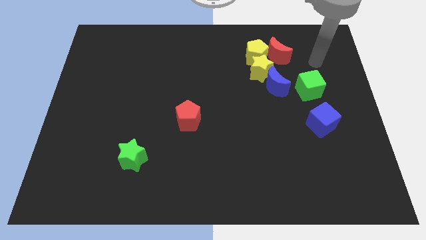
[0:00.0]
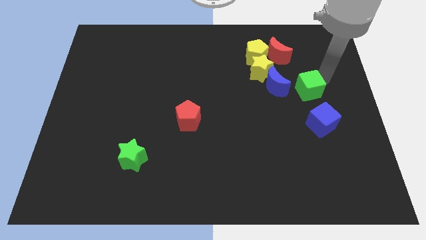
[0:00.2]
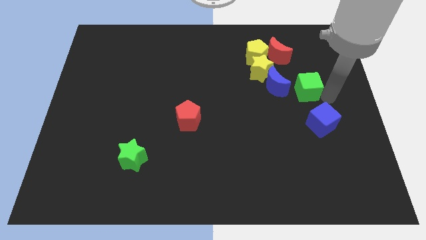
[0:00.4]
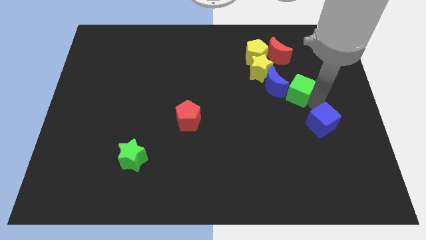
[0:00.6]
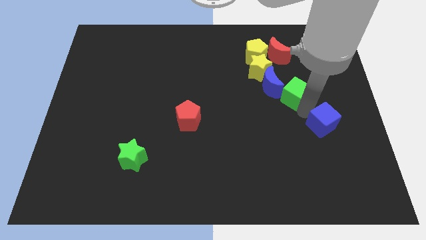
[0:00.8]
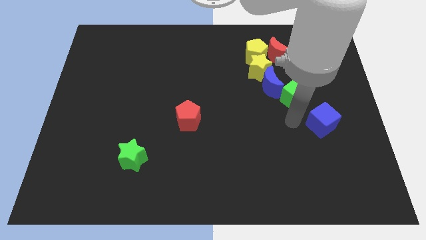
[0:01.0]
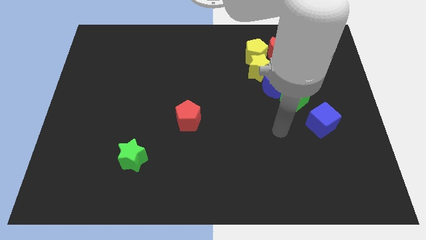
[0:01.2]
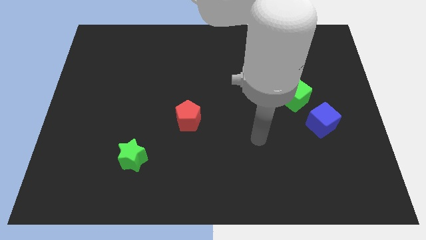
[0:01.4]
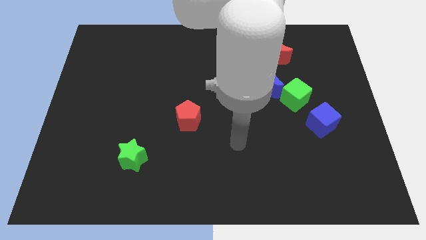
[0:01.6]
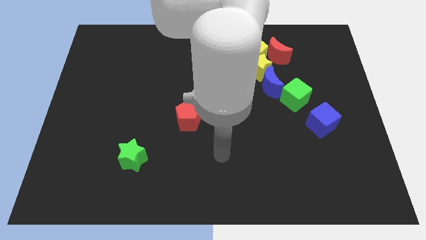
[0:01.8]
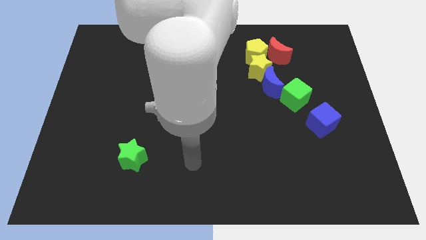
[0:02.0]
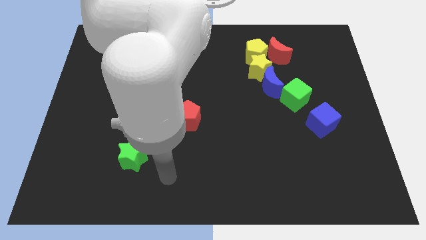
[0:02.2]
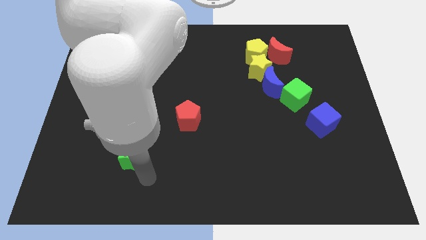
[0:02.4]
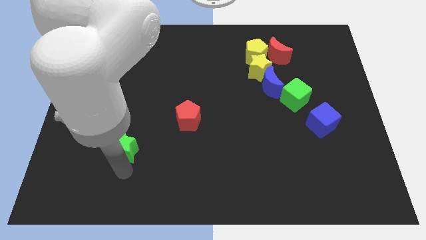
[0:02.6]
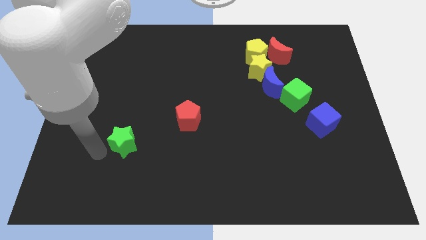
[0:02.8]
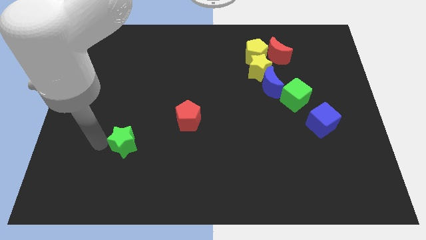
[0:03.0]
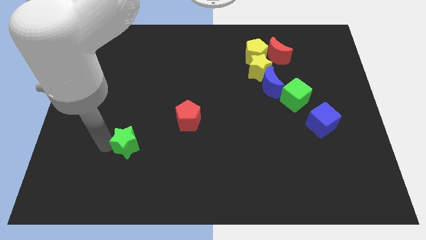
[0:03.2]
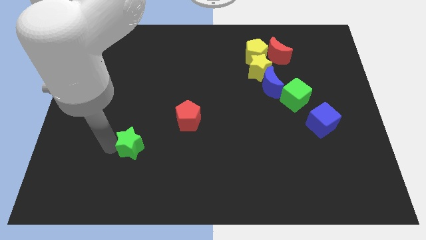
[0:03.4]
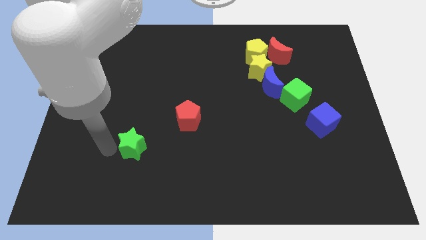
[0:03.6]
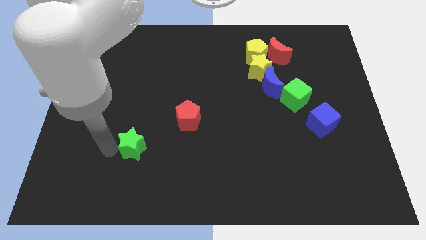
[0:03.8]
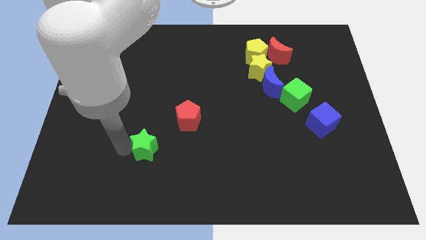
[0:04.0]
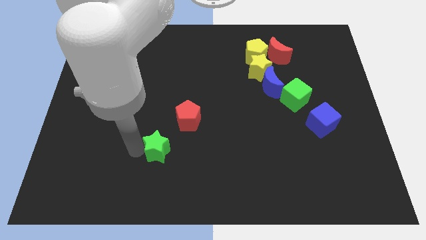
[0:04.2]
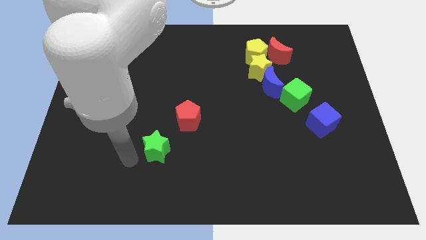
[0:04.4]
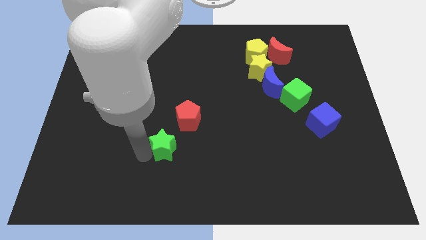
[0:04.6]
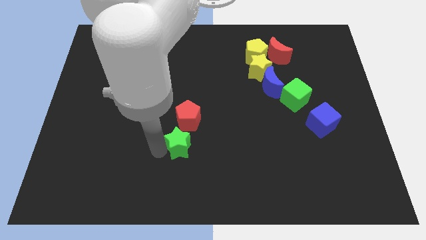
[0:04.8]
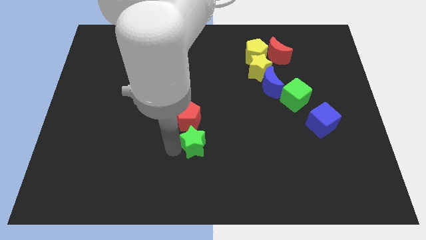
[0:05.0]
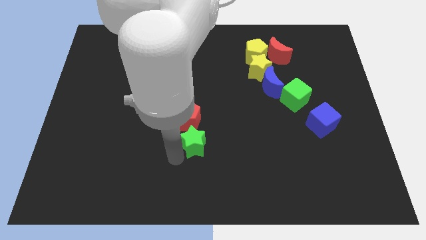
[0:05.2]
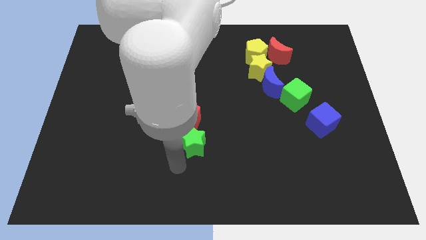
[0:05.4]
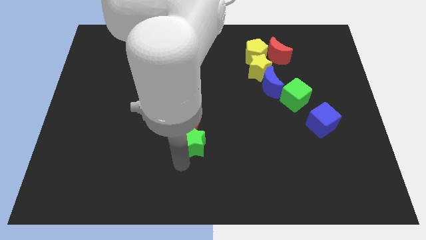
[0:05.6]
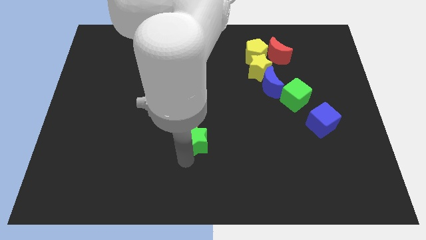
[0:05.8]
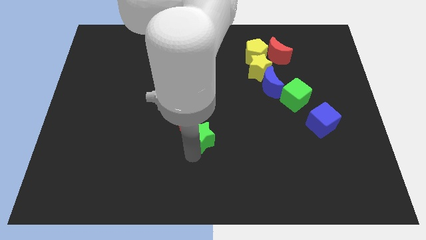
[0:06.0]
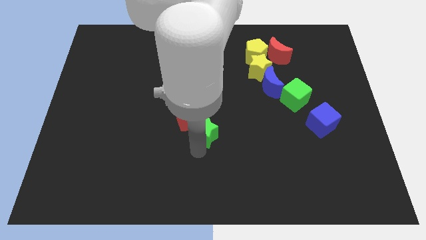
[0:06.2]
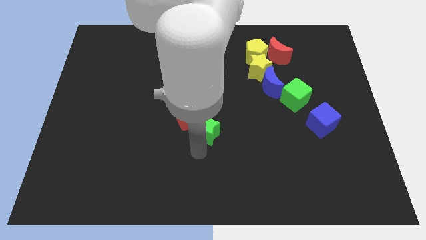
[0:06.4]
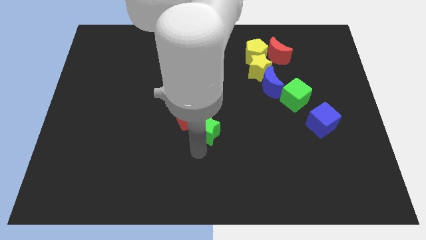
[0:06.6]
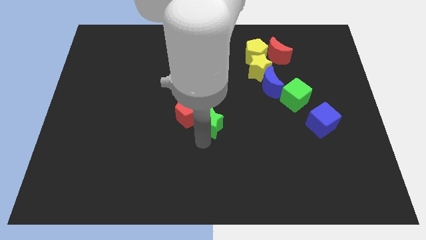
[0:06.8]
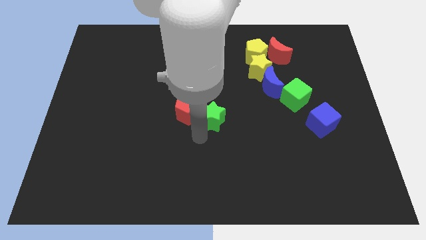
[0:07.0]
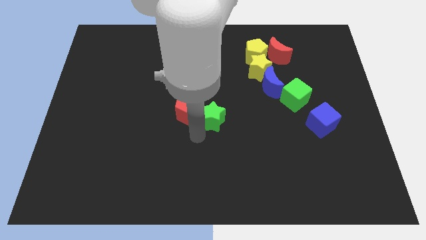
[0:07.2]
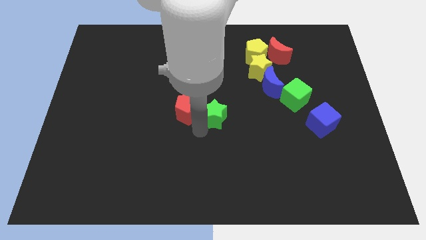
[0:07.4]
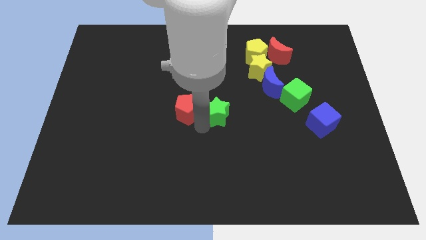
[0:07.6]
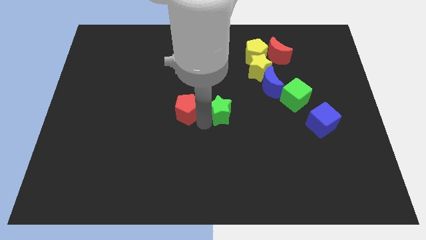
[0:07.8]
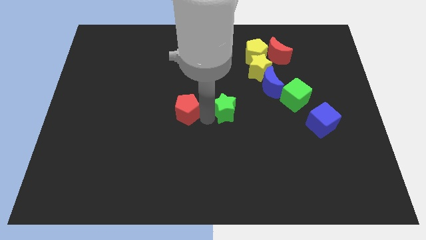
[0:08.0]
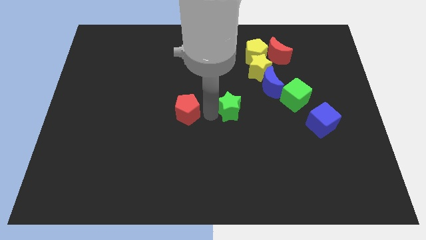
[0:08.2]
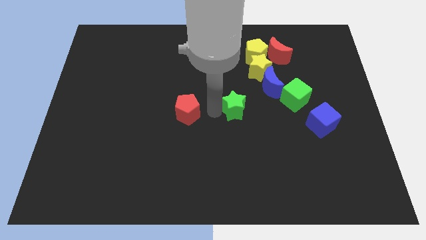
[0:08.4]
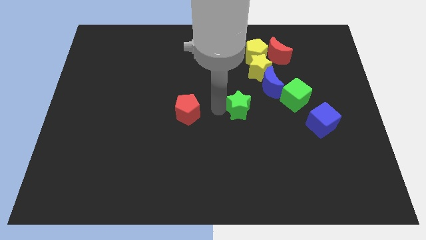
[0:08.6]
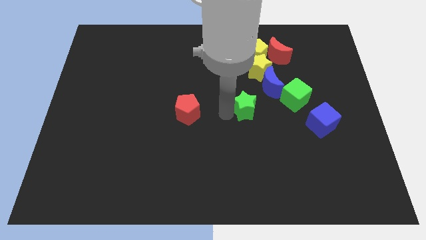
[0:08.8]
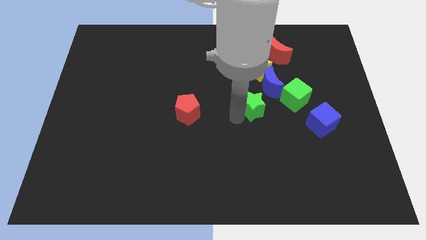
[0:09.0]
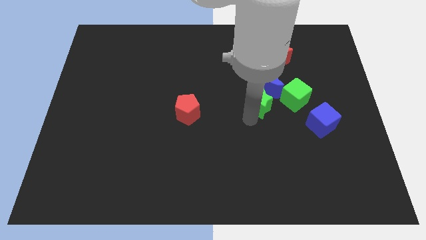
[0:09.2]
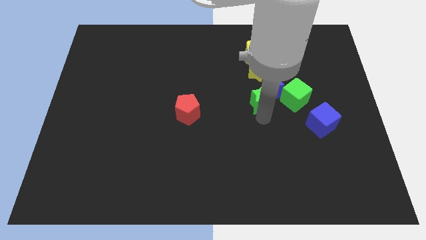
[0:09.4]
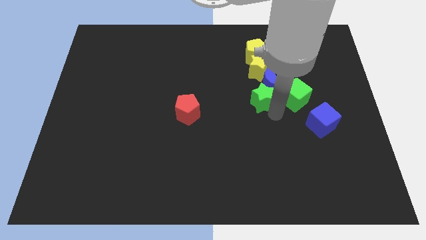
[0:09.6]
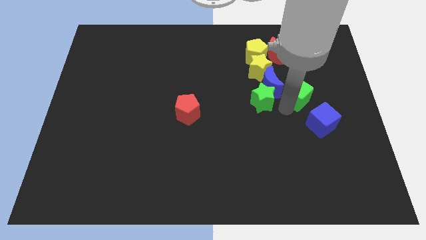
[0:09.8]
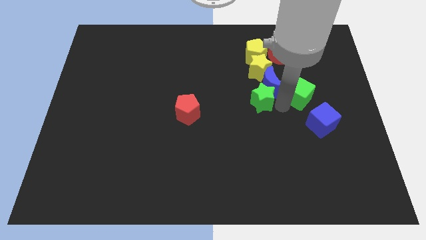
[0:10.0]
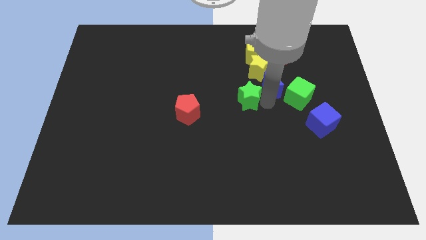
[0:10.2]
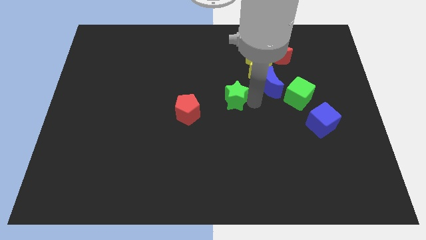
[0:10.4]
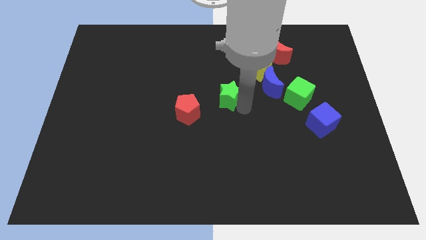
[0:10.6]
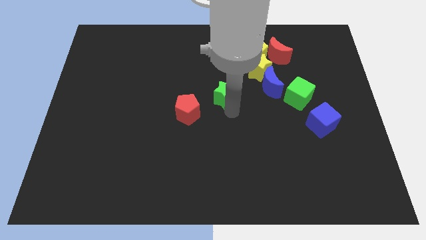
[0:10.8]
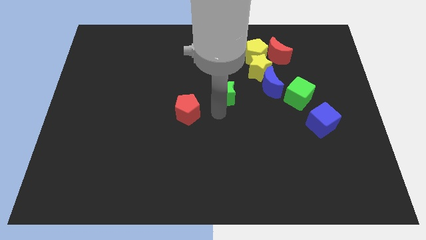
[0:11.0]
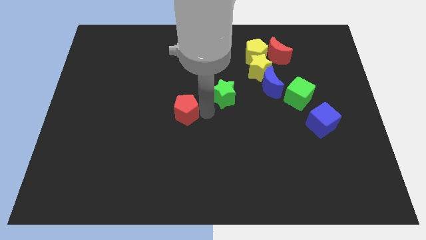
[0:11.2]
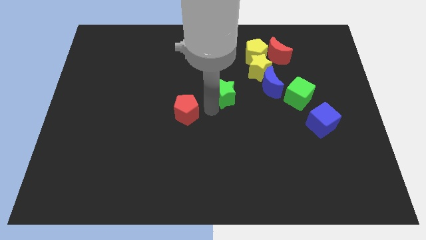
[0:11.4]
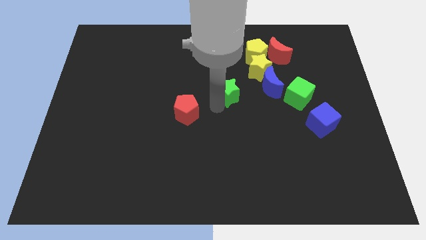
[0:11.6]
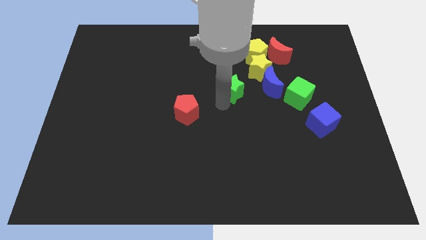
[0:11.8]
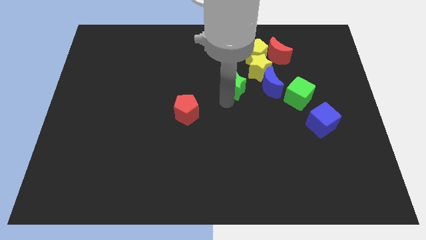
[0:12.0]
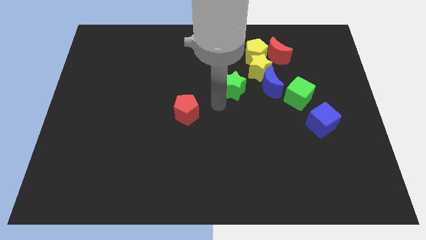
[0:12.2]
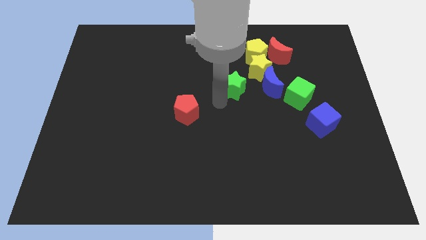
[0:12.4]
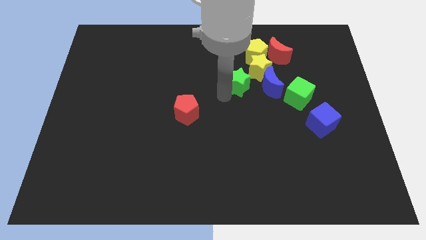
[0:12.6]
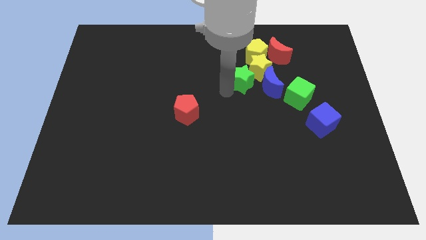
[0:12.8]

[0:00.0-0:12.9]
move the green star to the yellow star

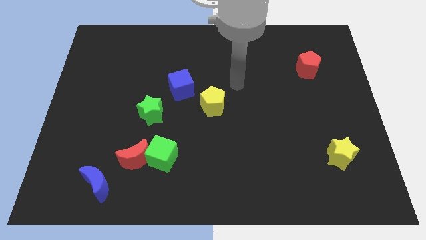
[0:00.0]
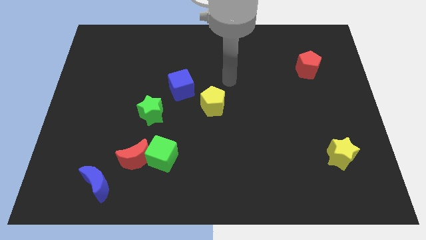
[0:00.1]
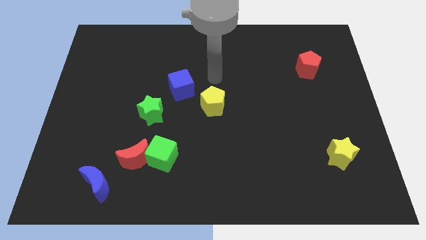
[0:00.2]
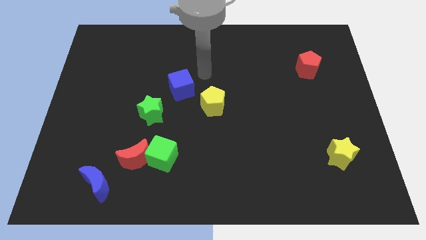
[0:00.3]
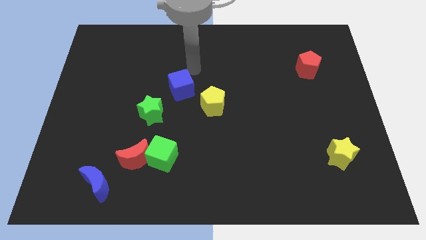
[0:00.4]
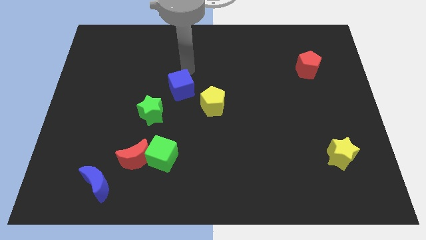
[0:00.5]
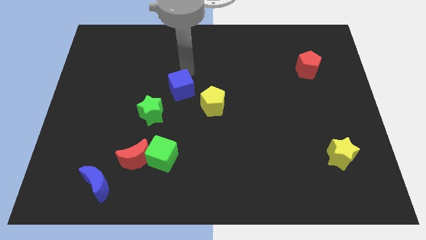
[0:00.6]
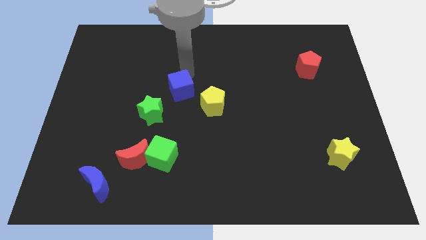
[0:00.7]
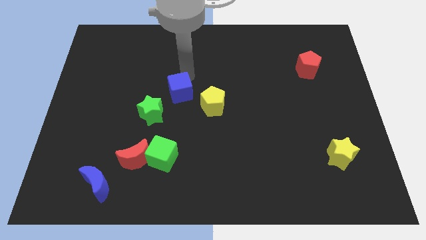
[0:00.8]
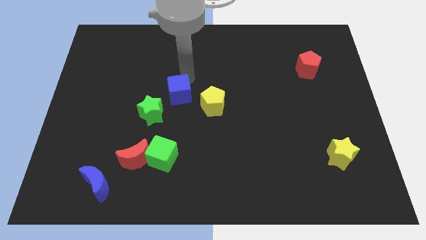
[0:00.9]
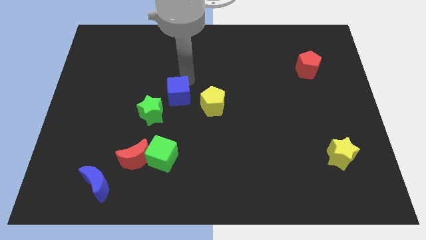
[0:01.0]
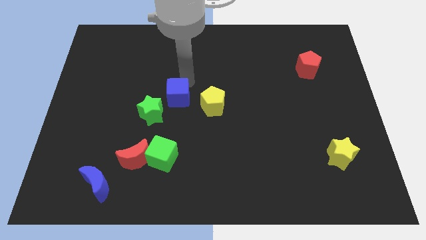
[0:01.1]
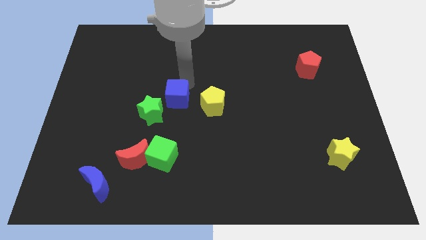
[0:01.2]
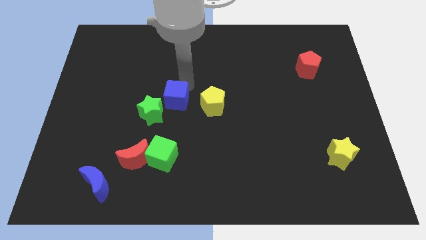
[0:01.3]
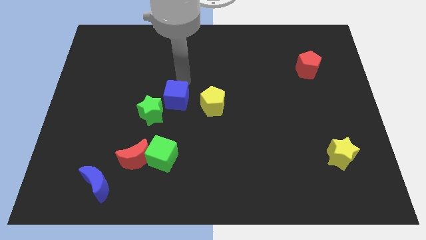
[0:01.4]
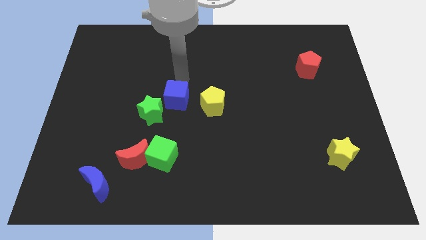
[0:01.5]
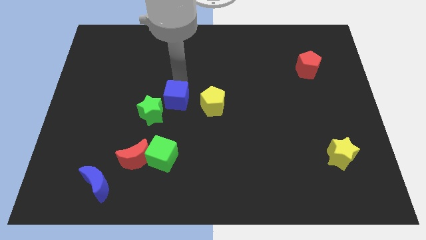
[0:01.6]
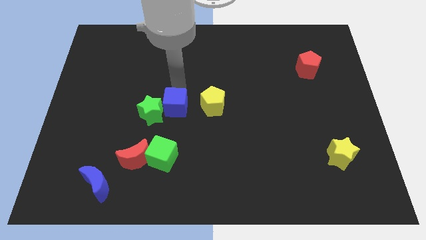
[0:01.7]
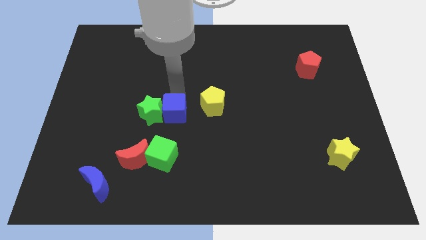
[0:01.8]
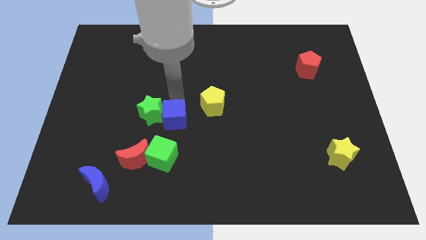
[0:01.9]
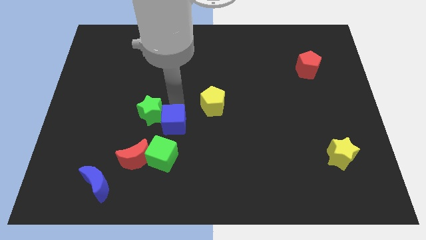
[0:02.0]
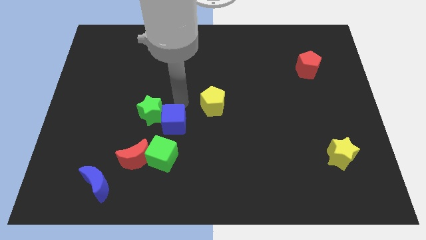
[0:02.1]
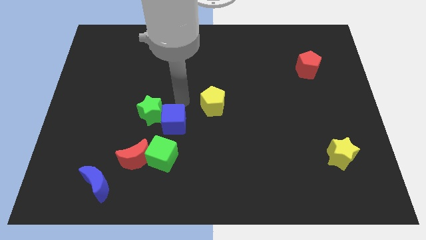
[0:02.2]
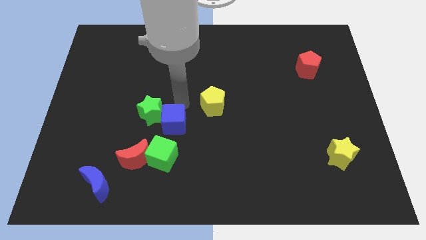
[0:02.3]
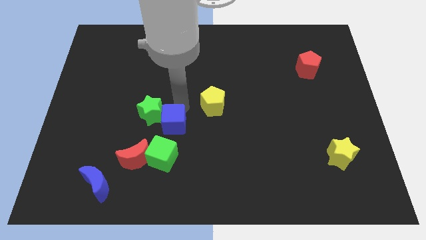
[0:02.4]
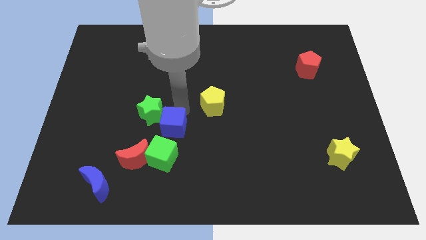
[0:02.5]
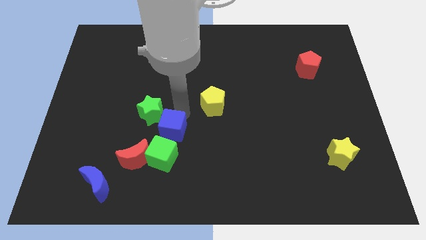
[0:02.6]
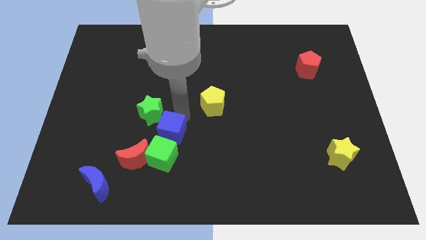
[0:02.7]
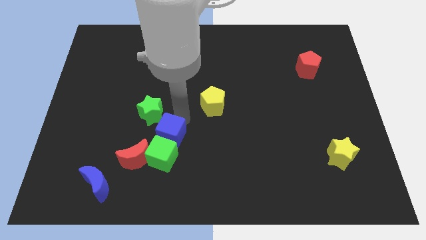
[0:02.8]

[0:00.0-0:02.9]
move the blue cube next to the green cube
